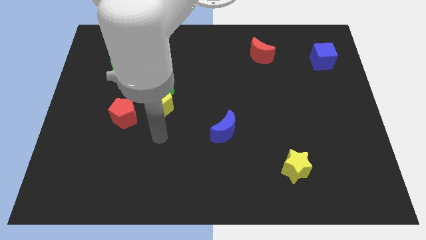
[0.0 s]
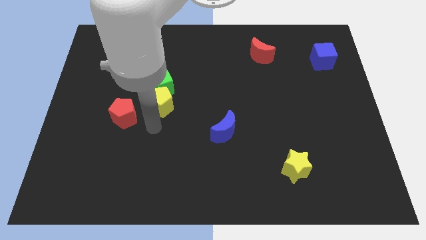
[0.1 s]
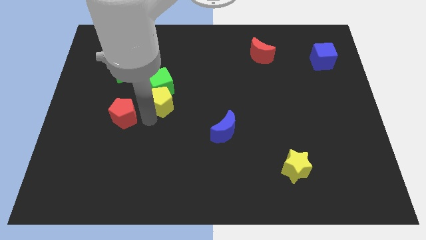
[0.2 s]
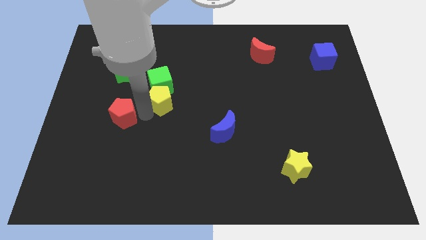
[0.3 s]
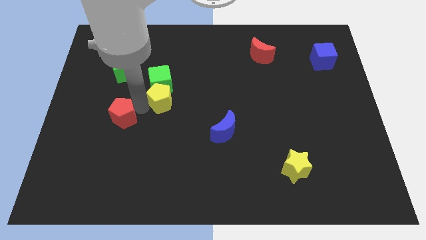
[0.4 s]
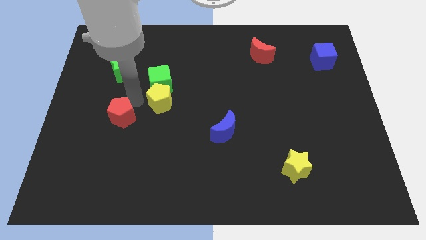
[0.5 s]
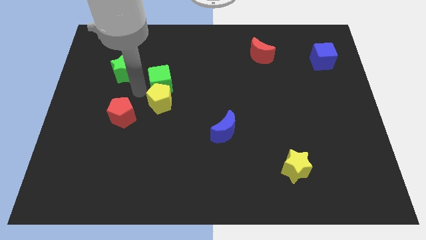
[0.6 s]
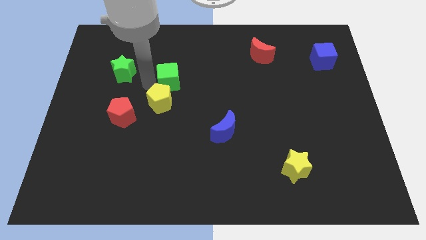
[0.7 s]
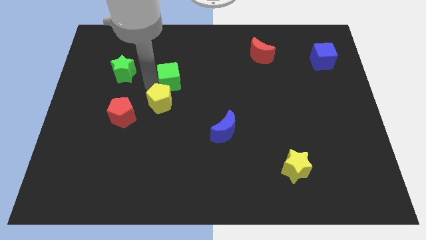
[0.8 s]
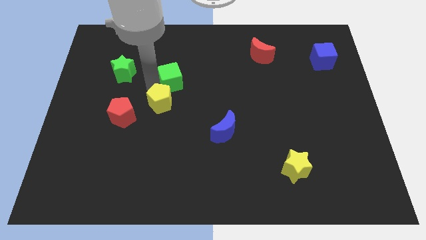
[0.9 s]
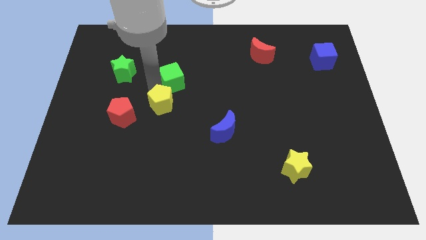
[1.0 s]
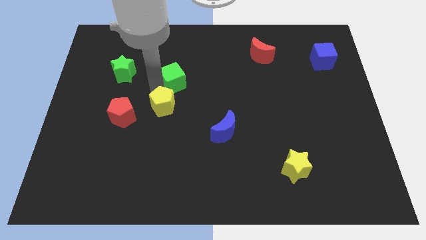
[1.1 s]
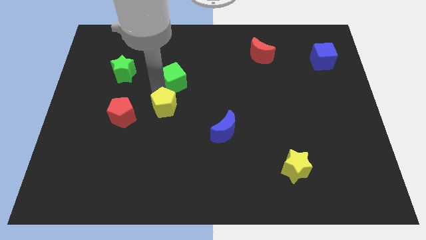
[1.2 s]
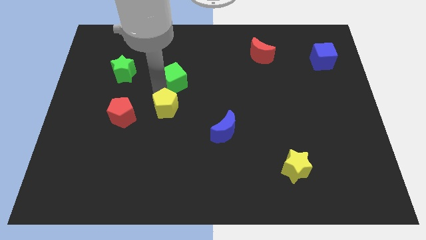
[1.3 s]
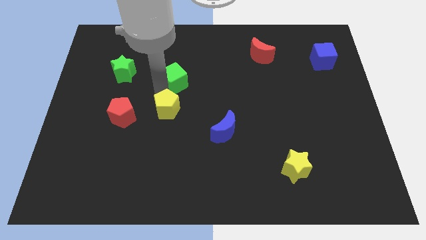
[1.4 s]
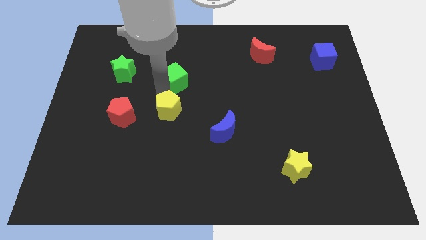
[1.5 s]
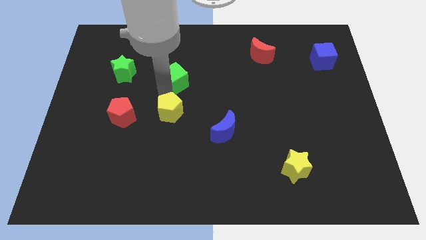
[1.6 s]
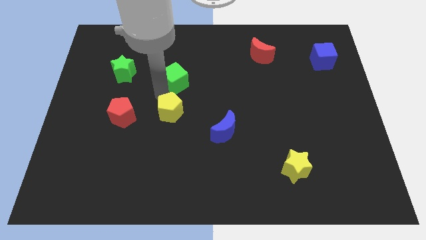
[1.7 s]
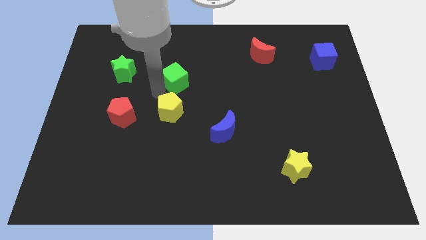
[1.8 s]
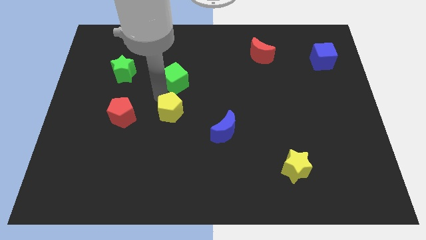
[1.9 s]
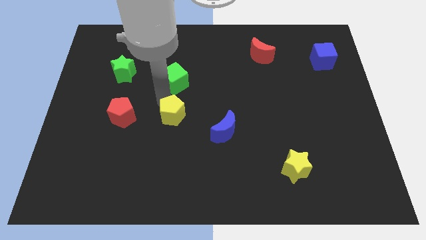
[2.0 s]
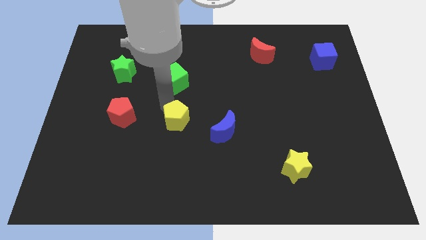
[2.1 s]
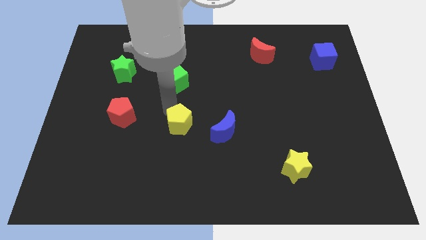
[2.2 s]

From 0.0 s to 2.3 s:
slightly slide the yellow pentagon down and right

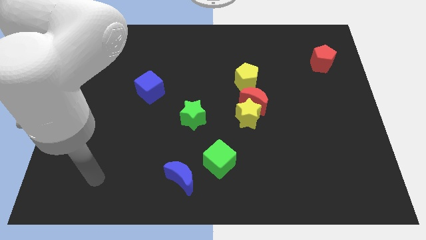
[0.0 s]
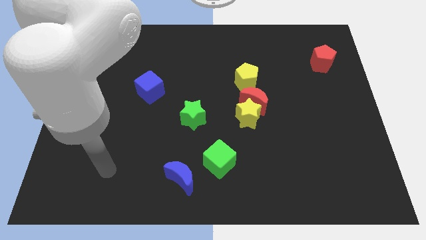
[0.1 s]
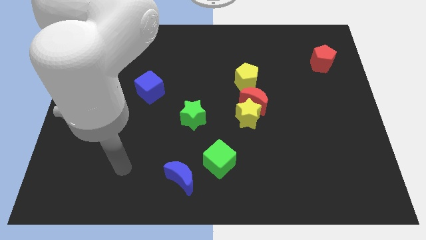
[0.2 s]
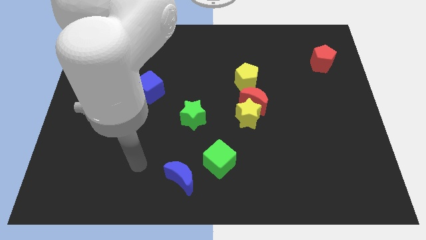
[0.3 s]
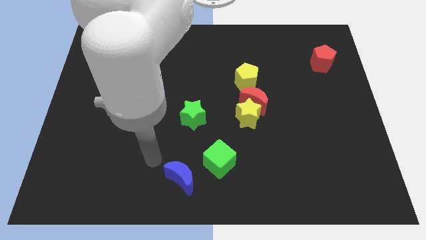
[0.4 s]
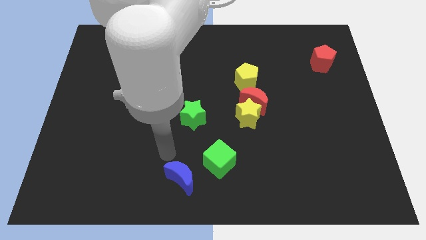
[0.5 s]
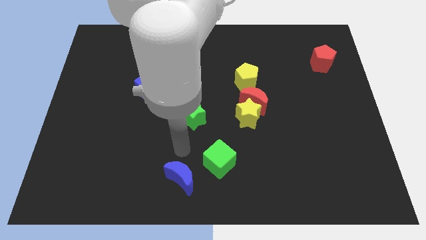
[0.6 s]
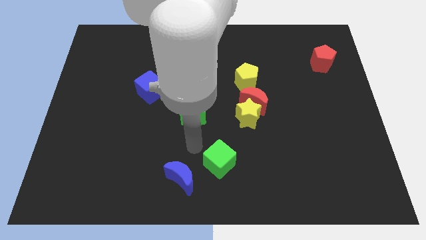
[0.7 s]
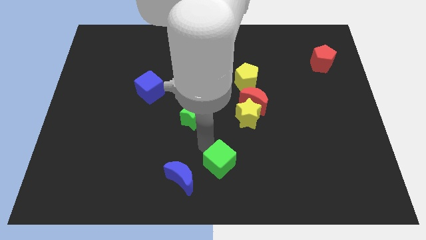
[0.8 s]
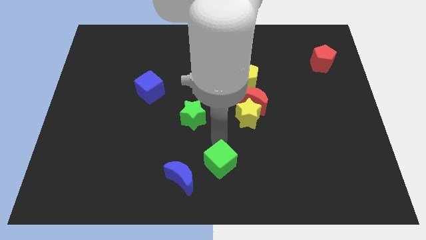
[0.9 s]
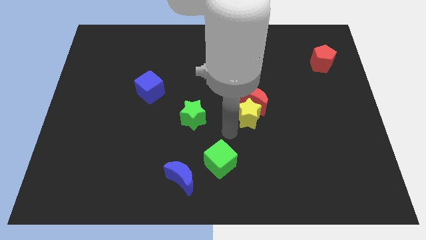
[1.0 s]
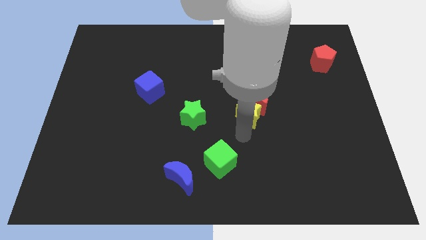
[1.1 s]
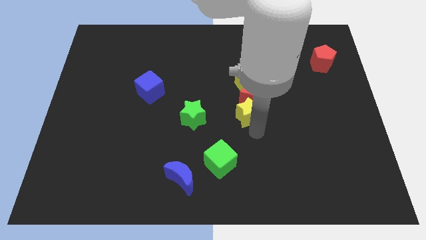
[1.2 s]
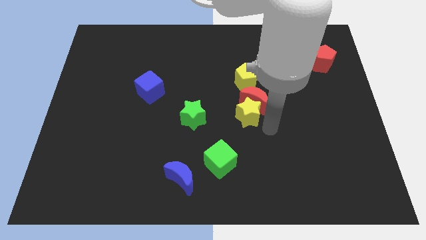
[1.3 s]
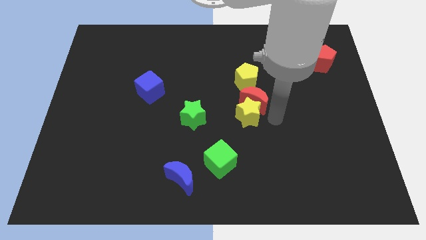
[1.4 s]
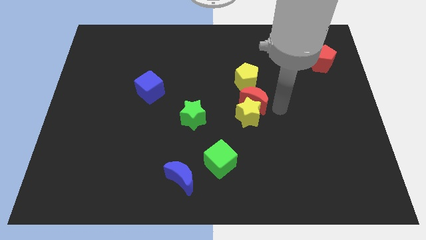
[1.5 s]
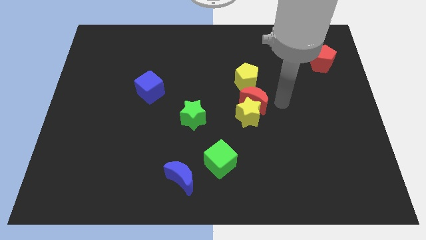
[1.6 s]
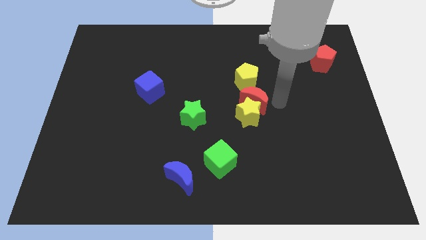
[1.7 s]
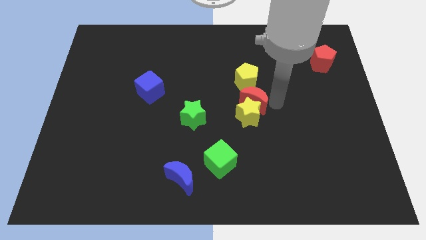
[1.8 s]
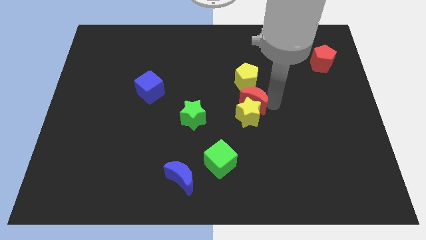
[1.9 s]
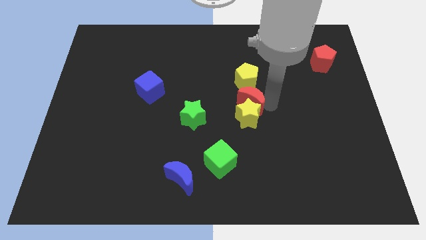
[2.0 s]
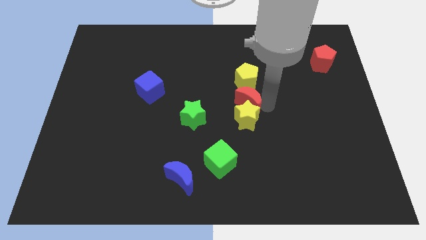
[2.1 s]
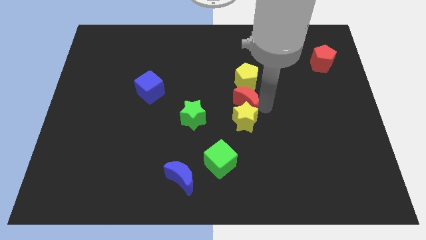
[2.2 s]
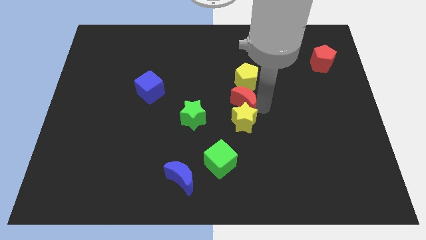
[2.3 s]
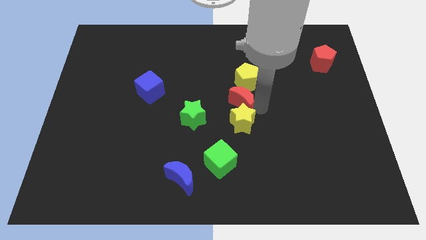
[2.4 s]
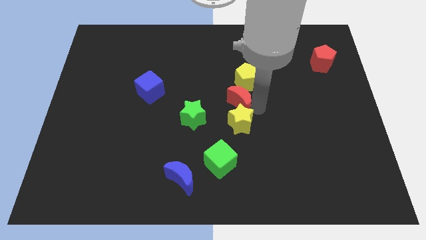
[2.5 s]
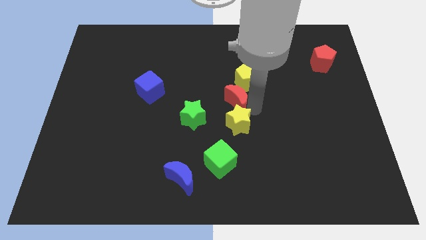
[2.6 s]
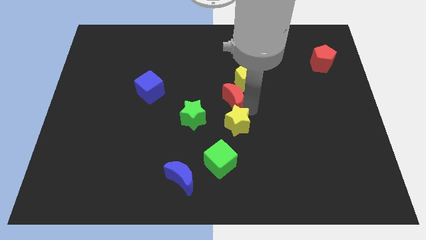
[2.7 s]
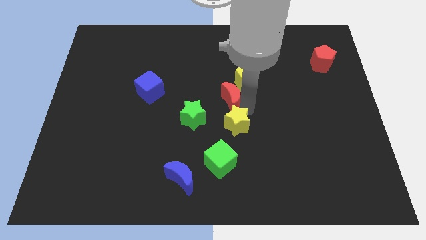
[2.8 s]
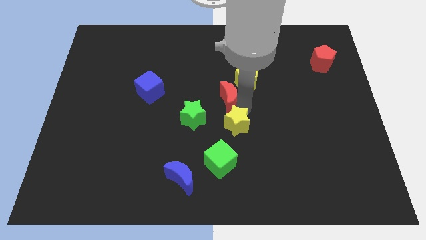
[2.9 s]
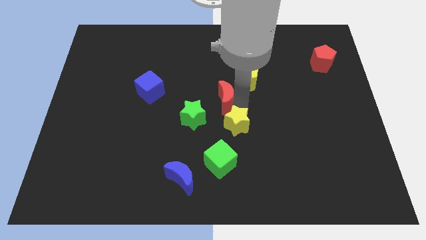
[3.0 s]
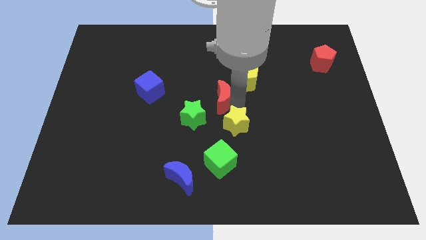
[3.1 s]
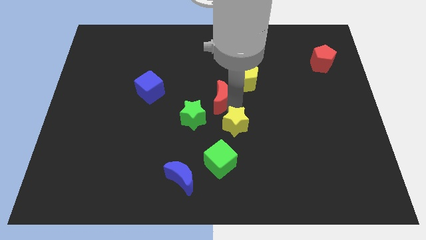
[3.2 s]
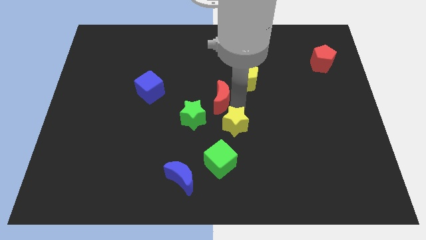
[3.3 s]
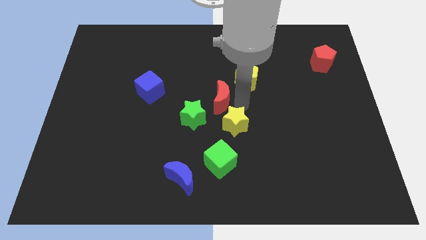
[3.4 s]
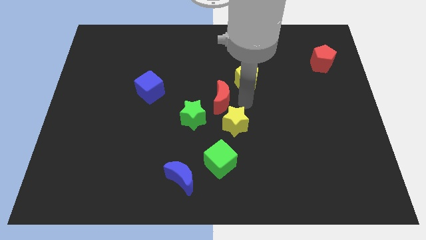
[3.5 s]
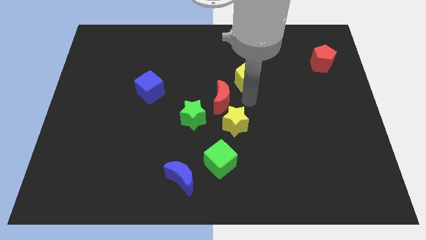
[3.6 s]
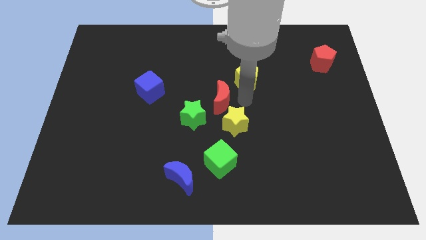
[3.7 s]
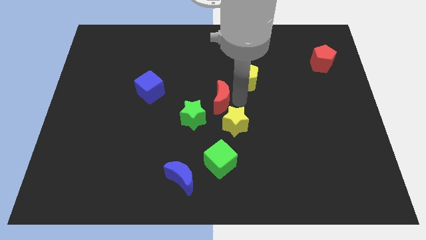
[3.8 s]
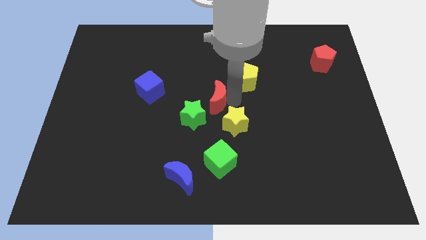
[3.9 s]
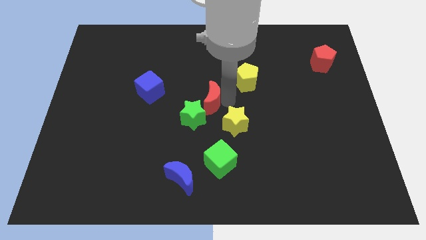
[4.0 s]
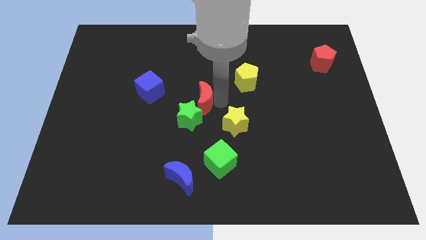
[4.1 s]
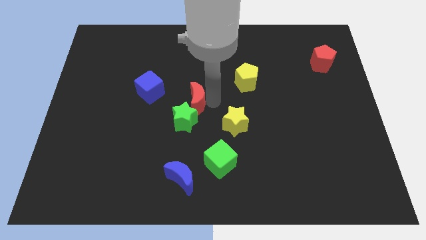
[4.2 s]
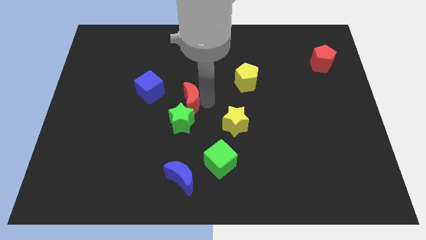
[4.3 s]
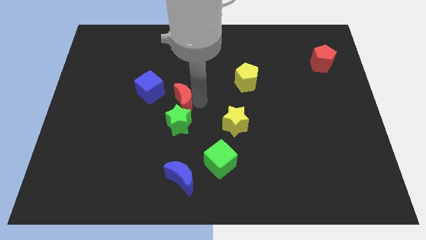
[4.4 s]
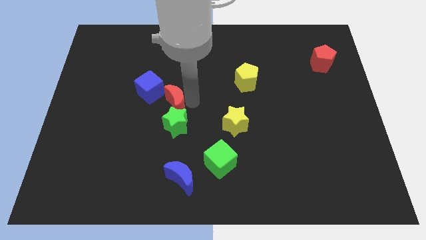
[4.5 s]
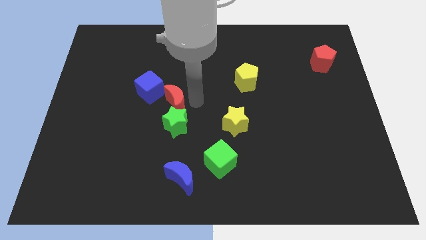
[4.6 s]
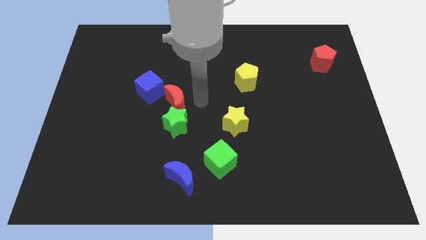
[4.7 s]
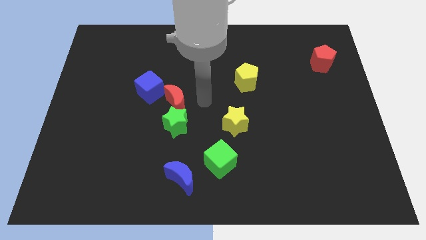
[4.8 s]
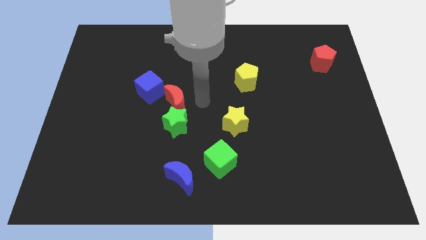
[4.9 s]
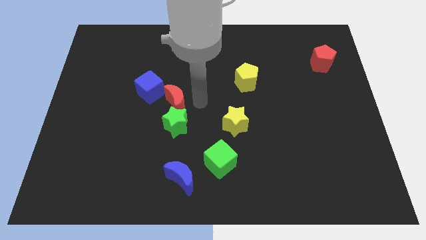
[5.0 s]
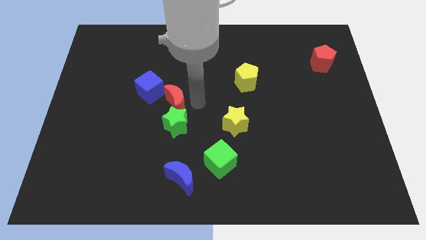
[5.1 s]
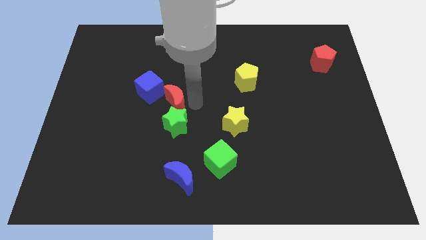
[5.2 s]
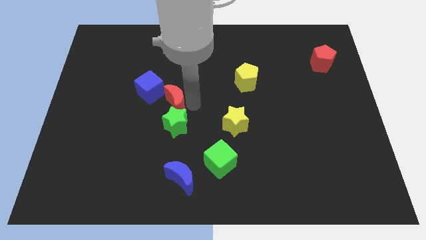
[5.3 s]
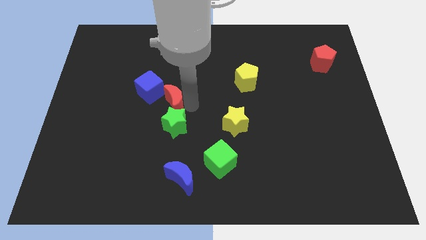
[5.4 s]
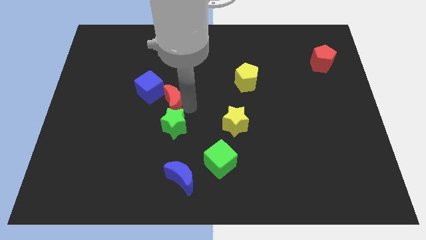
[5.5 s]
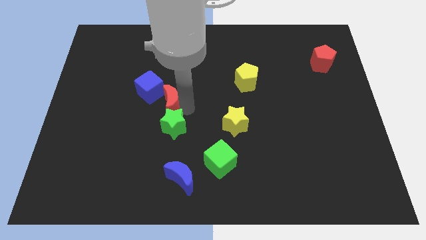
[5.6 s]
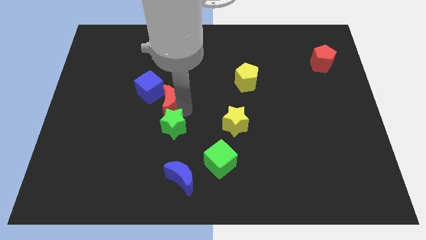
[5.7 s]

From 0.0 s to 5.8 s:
push the red moon left
